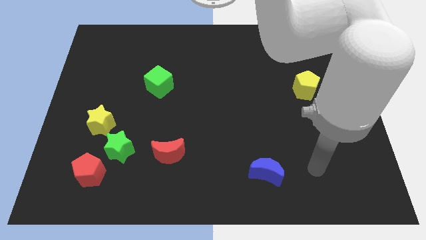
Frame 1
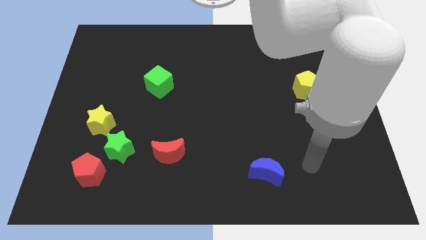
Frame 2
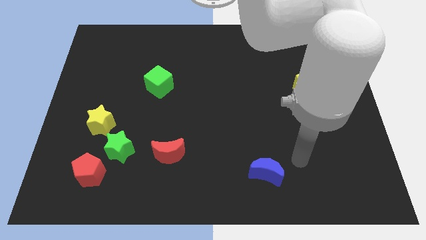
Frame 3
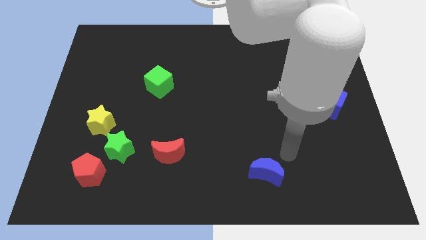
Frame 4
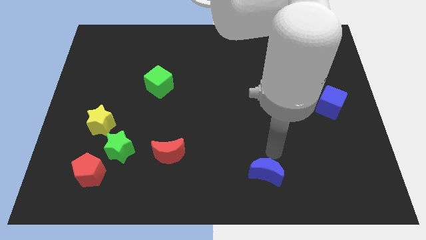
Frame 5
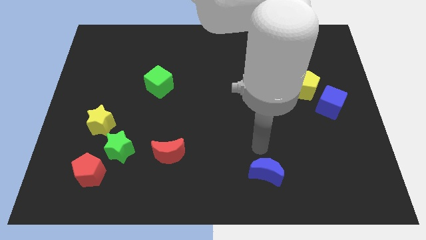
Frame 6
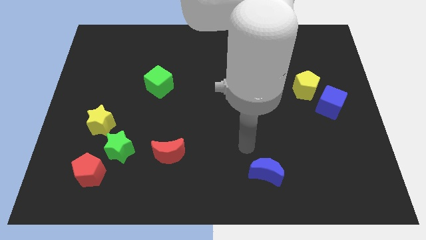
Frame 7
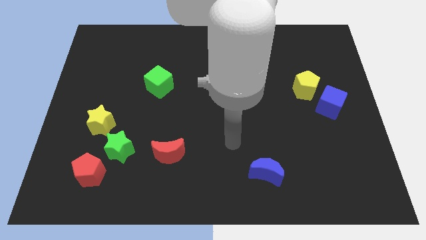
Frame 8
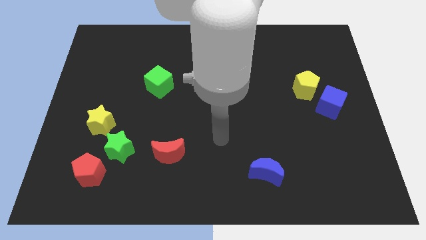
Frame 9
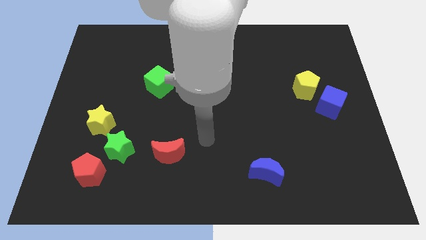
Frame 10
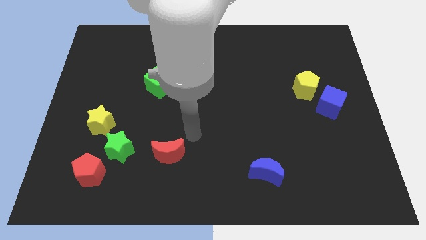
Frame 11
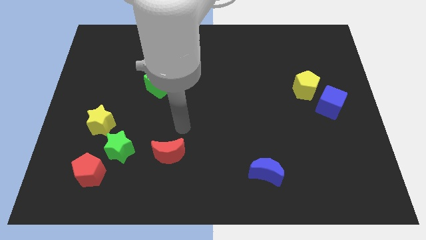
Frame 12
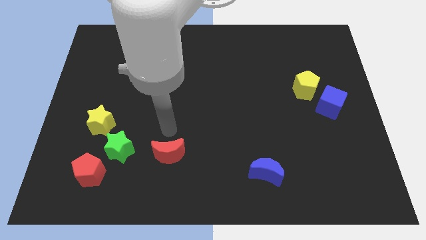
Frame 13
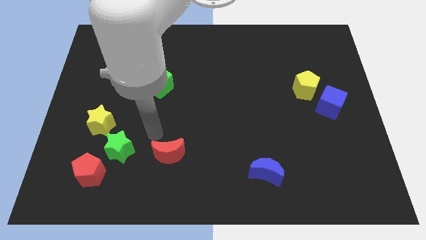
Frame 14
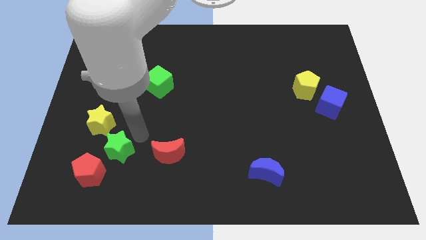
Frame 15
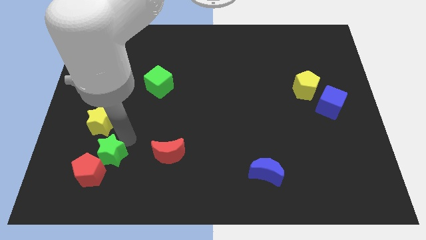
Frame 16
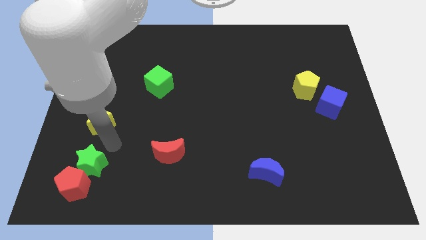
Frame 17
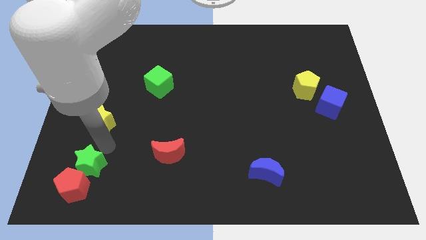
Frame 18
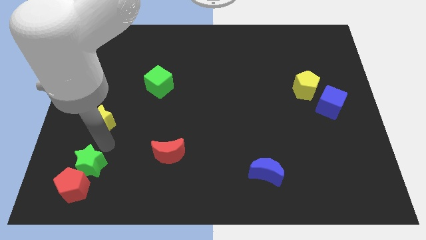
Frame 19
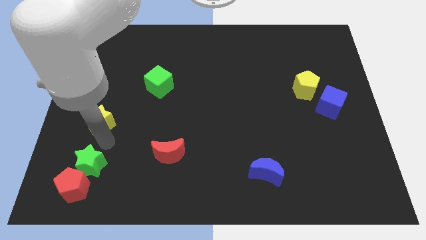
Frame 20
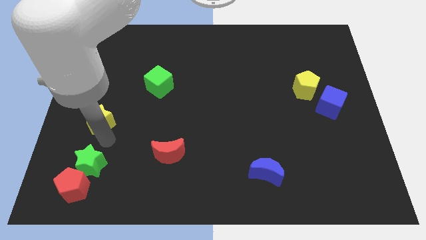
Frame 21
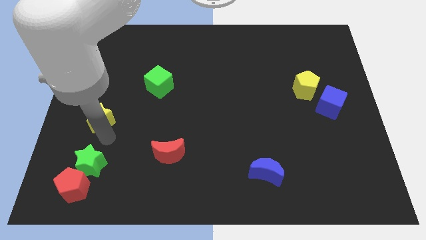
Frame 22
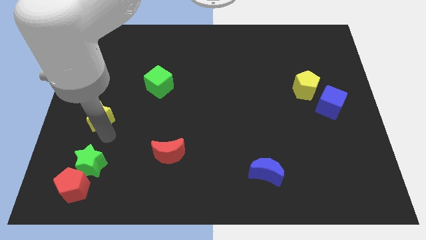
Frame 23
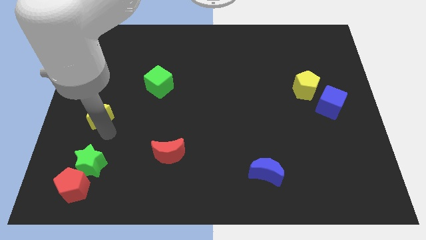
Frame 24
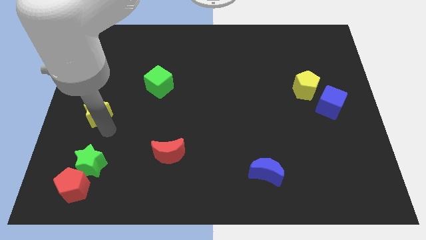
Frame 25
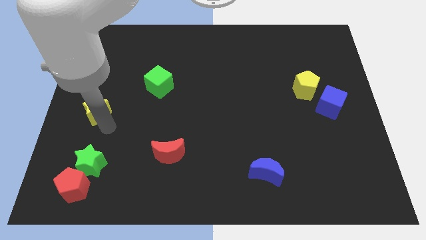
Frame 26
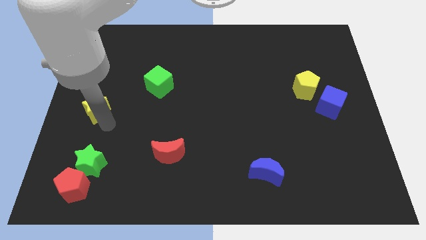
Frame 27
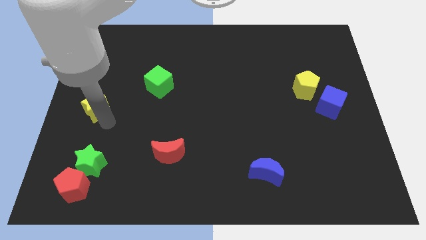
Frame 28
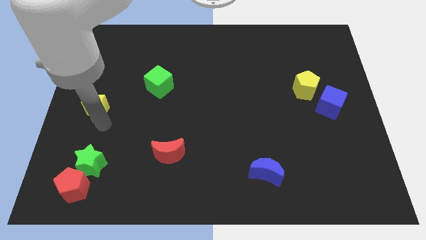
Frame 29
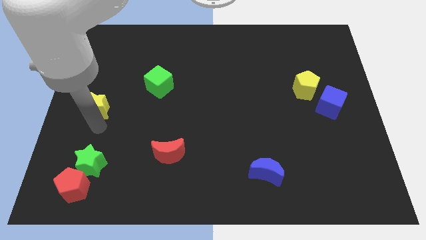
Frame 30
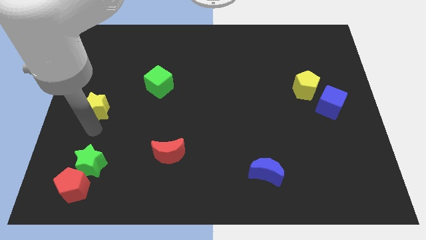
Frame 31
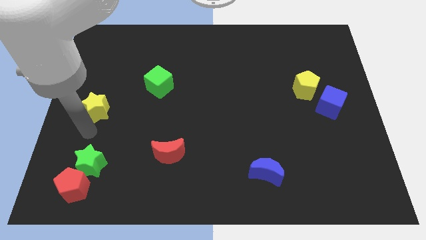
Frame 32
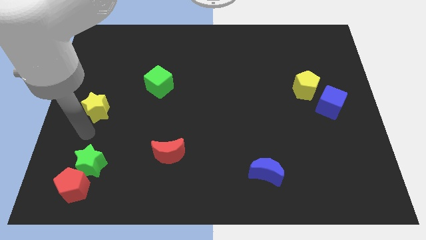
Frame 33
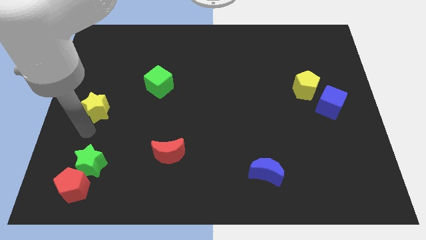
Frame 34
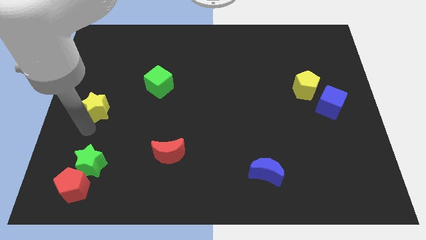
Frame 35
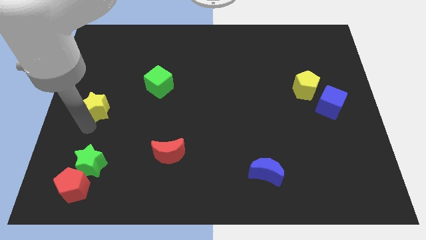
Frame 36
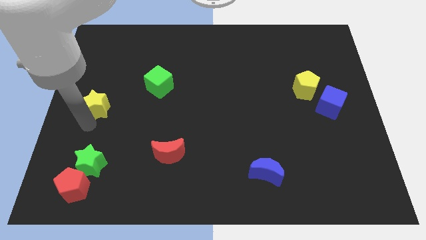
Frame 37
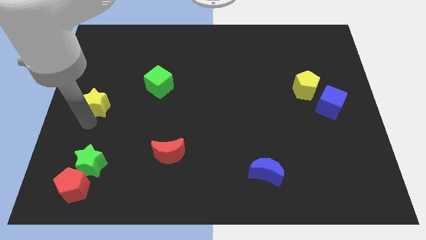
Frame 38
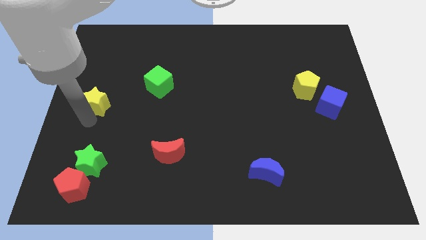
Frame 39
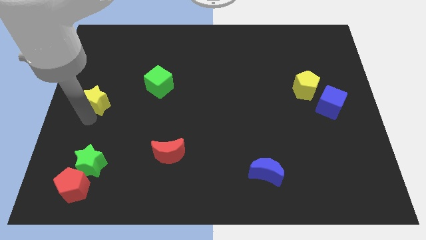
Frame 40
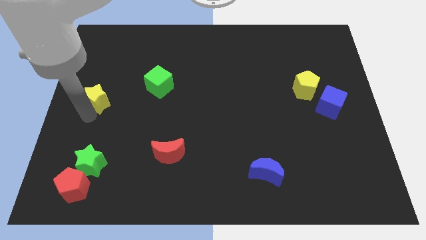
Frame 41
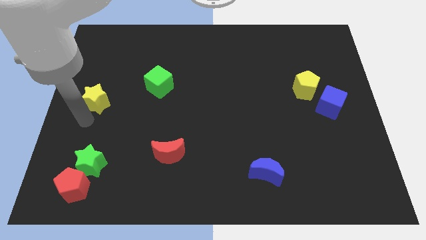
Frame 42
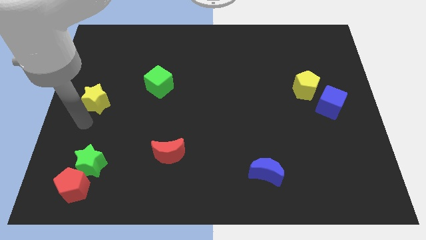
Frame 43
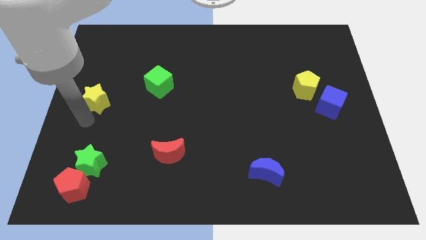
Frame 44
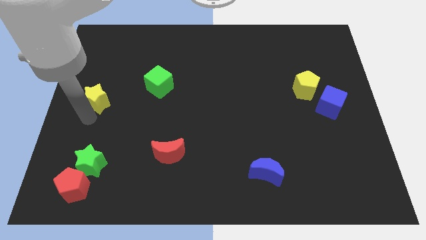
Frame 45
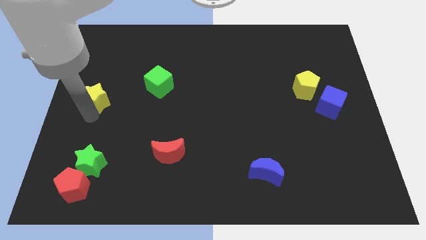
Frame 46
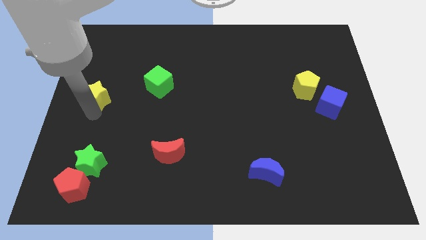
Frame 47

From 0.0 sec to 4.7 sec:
push the yellow star a little bit up

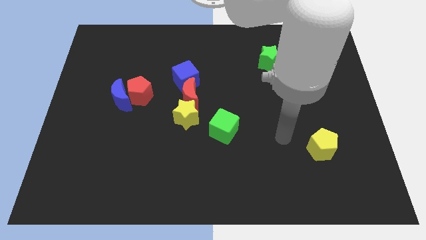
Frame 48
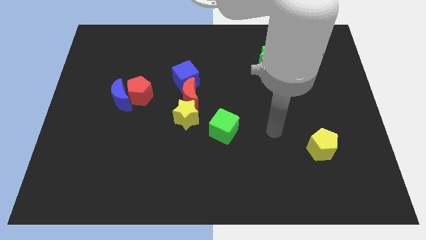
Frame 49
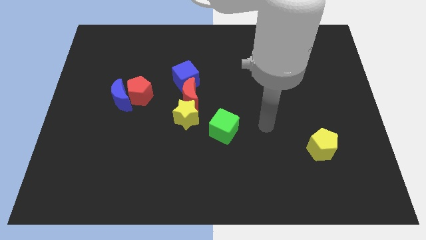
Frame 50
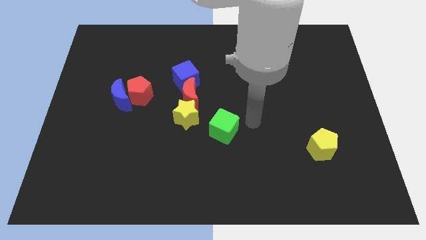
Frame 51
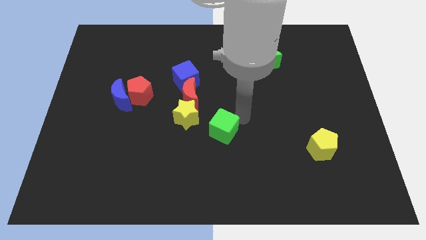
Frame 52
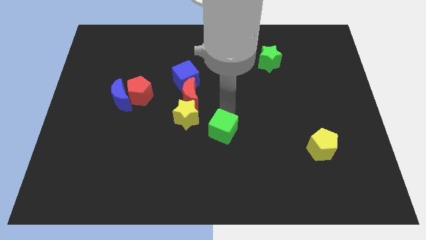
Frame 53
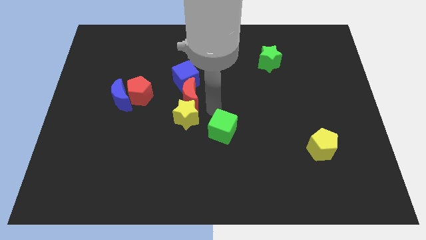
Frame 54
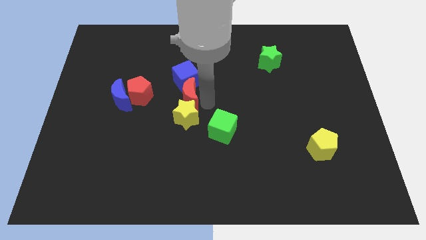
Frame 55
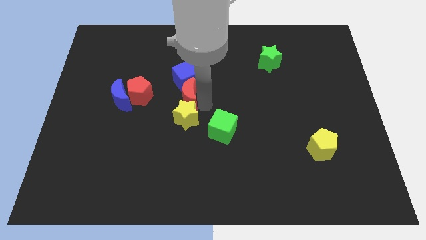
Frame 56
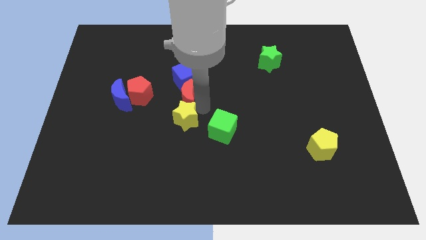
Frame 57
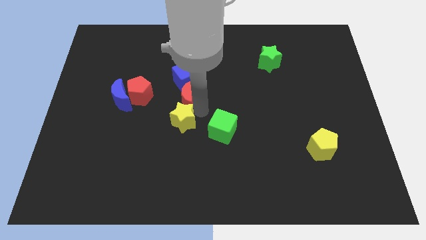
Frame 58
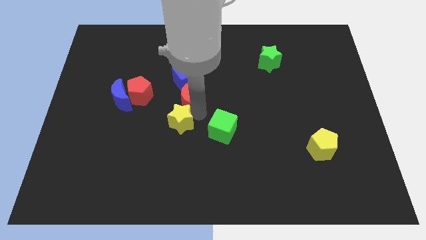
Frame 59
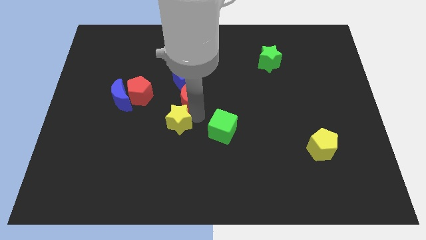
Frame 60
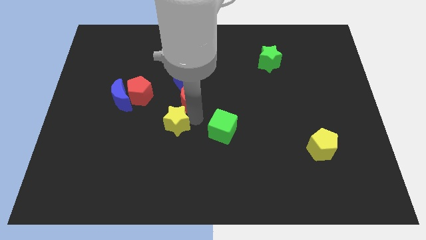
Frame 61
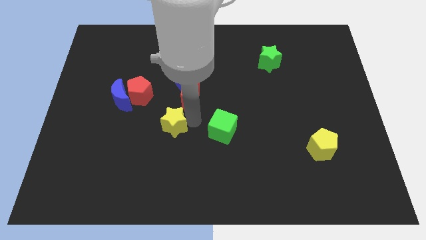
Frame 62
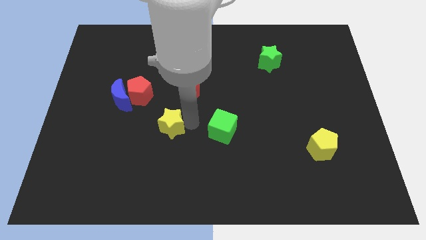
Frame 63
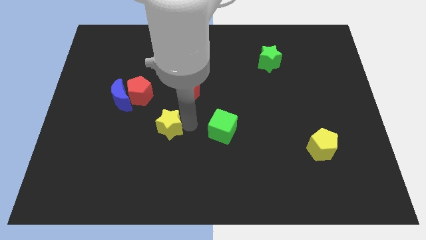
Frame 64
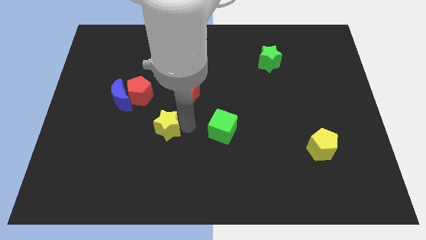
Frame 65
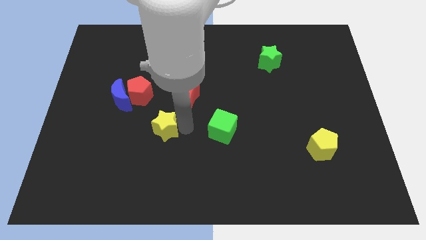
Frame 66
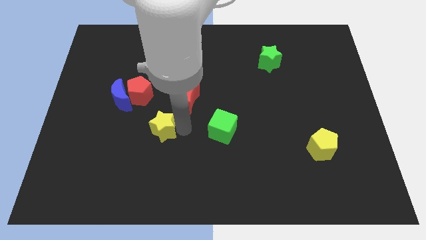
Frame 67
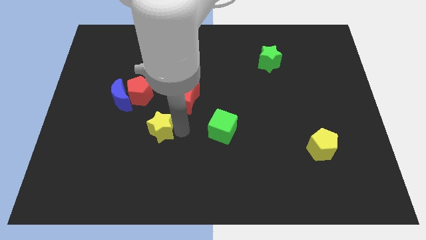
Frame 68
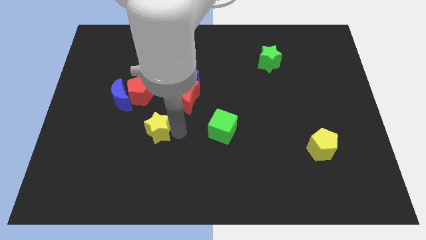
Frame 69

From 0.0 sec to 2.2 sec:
slide the yellow star a little bit diagonally downwards and to the left

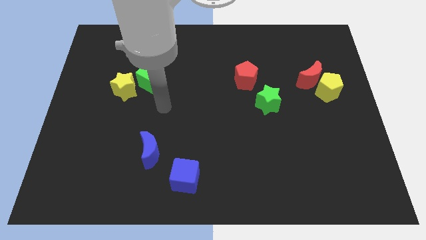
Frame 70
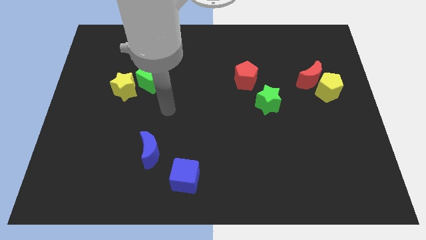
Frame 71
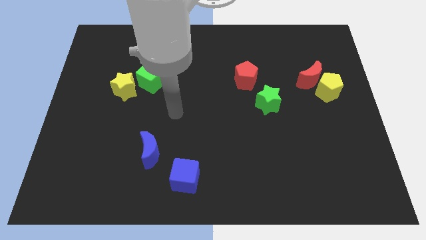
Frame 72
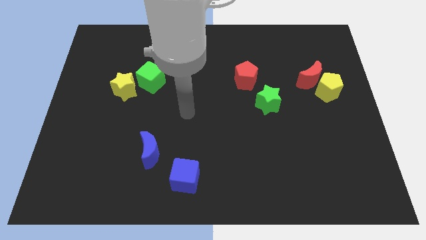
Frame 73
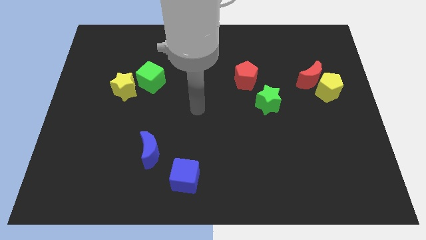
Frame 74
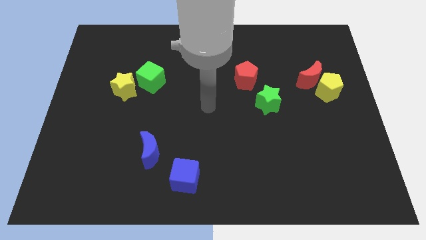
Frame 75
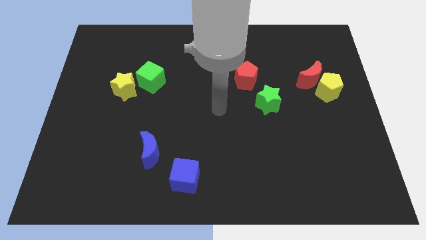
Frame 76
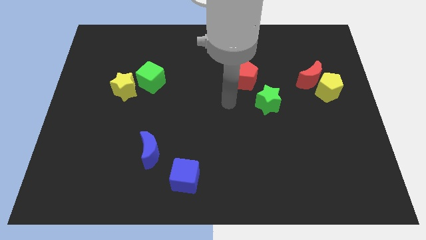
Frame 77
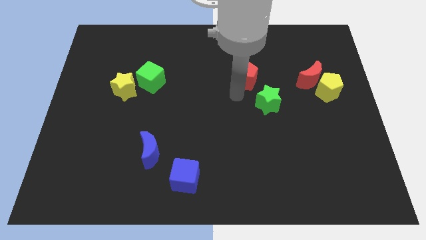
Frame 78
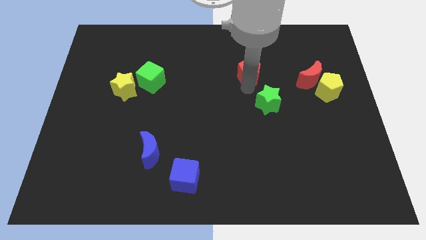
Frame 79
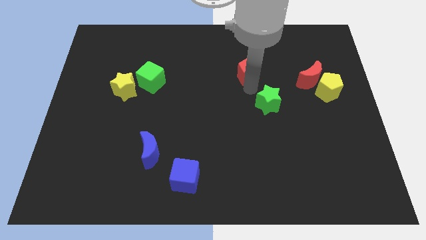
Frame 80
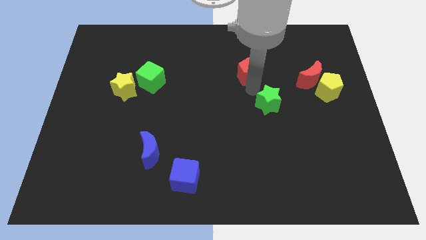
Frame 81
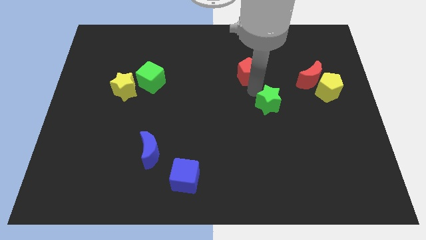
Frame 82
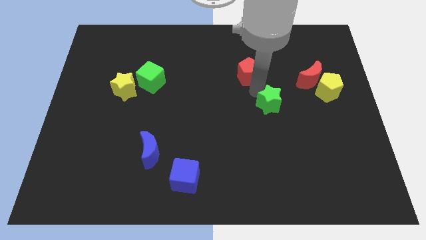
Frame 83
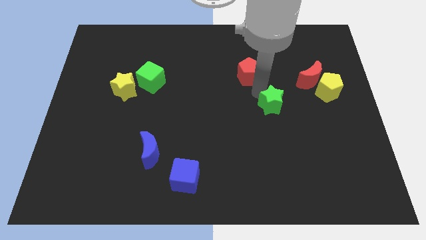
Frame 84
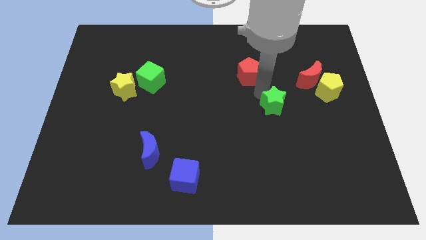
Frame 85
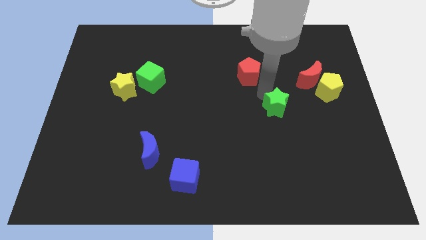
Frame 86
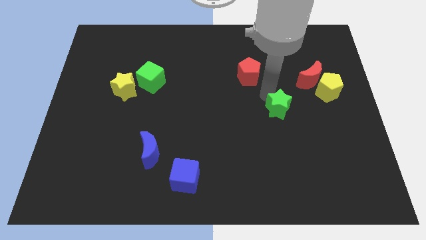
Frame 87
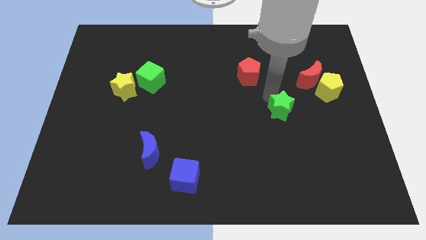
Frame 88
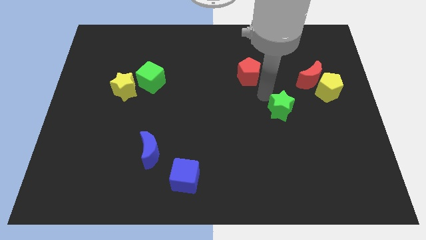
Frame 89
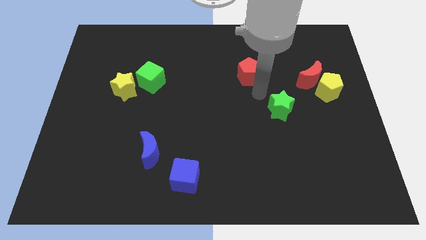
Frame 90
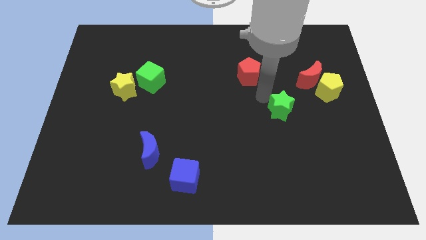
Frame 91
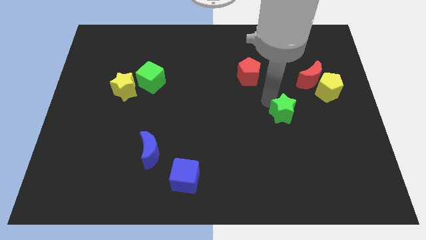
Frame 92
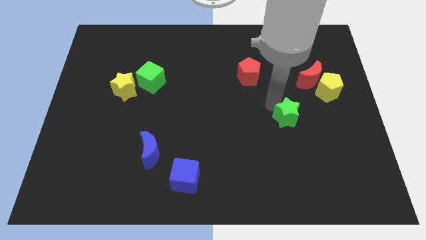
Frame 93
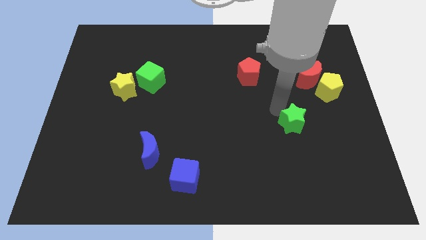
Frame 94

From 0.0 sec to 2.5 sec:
slide the green star downwards and right diagonally slightly
